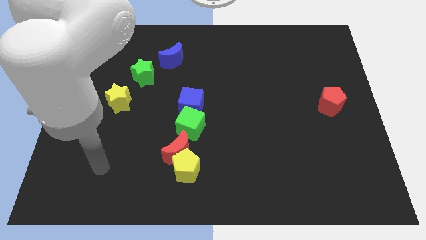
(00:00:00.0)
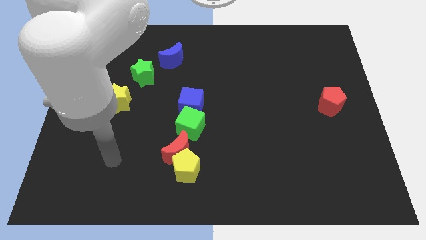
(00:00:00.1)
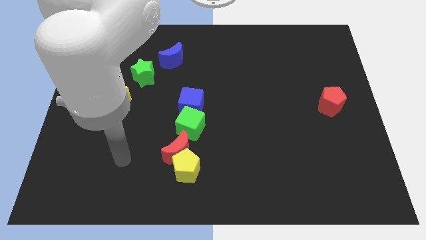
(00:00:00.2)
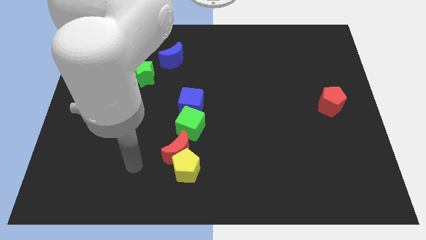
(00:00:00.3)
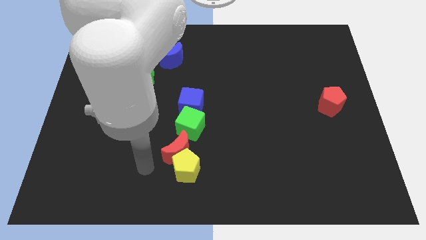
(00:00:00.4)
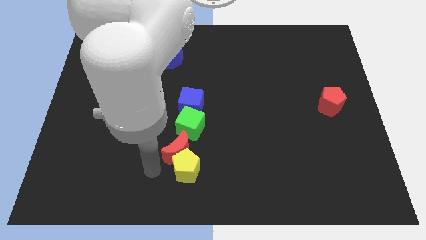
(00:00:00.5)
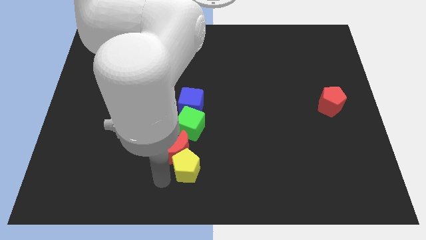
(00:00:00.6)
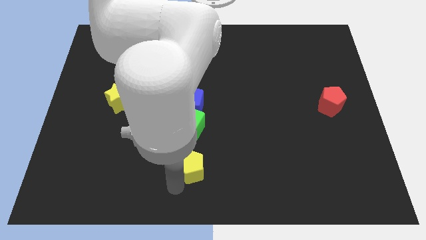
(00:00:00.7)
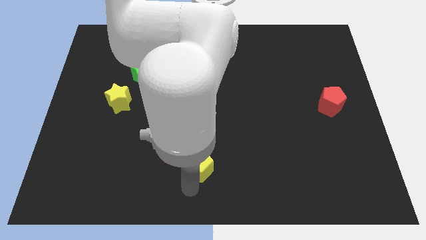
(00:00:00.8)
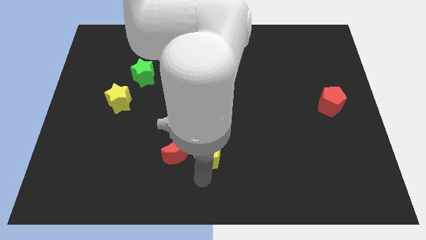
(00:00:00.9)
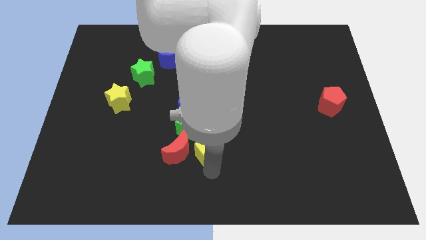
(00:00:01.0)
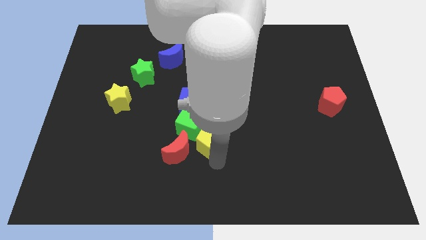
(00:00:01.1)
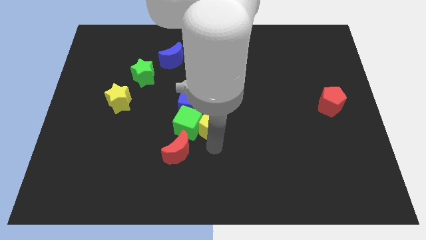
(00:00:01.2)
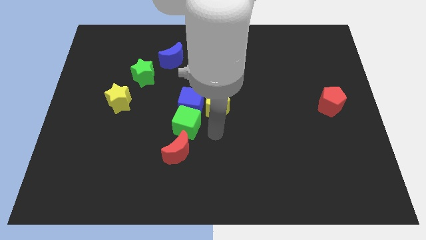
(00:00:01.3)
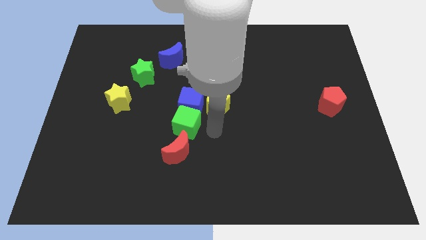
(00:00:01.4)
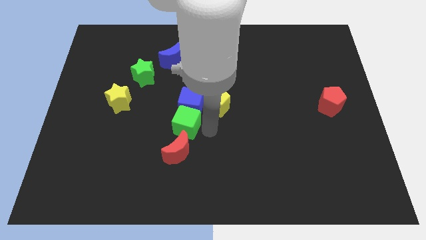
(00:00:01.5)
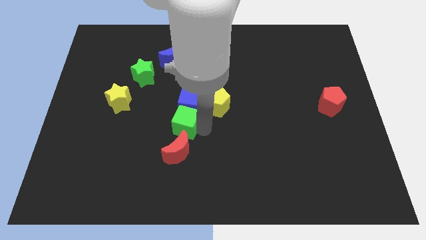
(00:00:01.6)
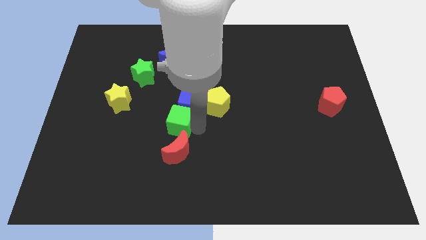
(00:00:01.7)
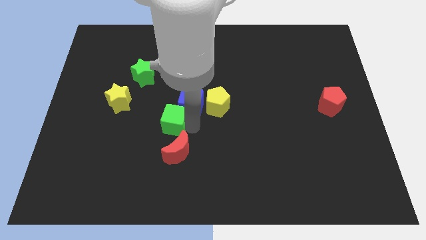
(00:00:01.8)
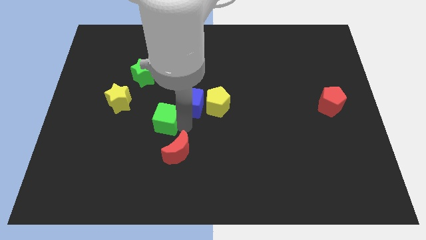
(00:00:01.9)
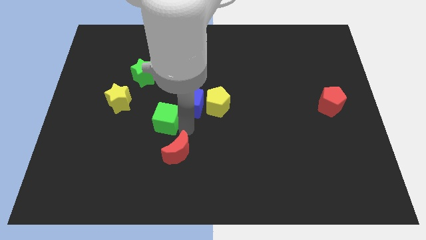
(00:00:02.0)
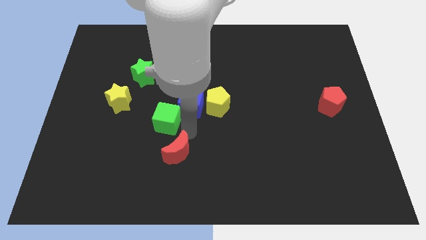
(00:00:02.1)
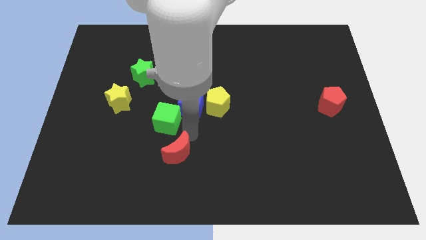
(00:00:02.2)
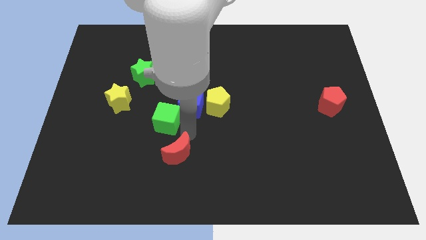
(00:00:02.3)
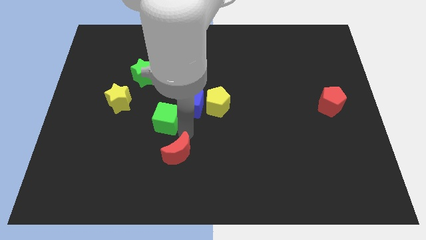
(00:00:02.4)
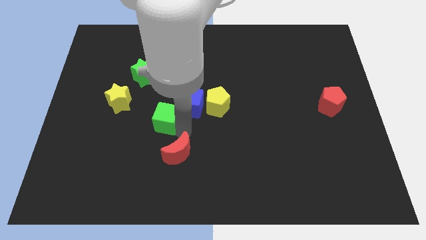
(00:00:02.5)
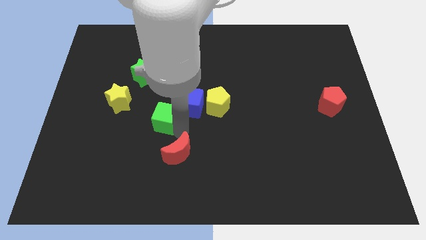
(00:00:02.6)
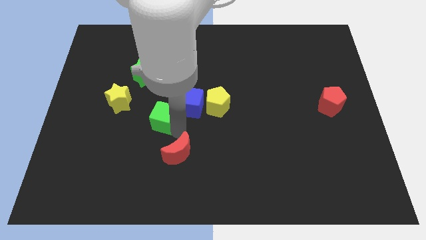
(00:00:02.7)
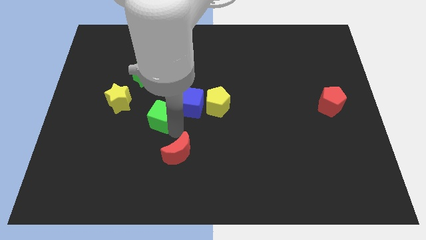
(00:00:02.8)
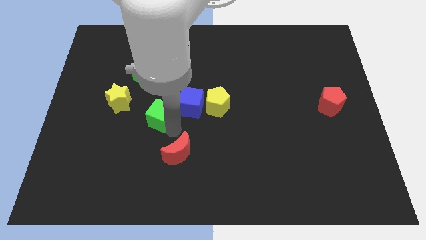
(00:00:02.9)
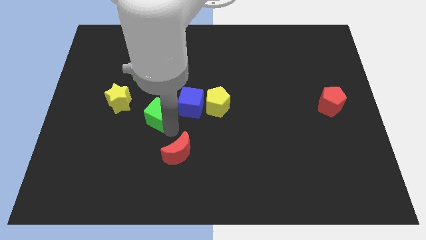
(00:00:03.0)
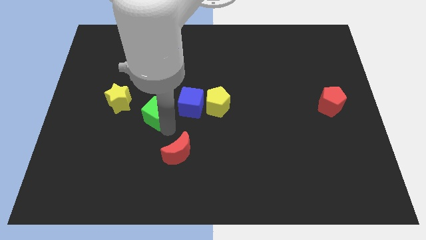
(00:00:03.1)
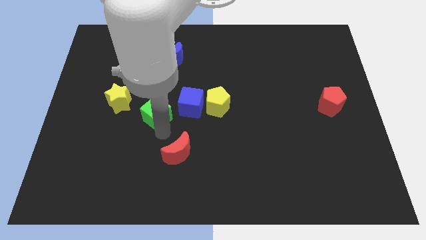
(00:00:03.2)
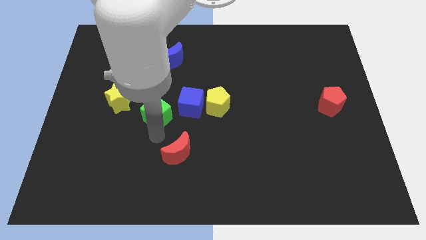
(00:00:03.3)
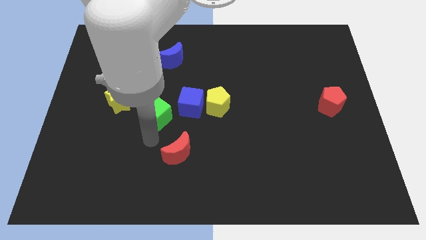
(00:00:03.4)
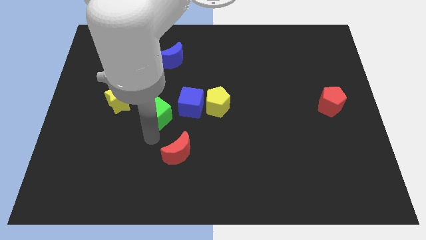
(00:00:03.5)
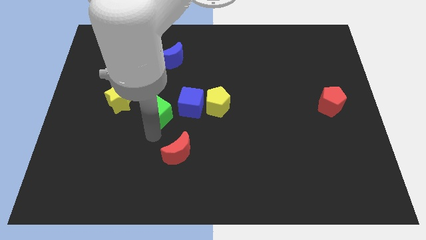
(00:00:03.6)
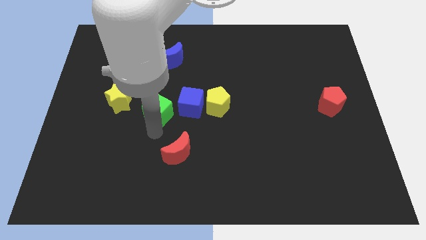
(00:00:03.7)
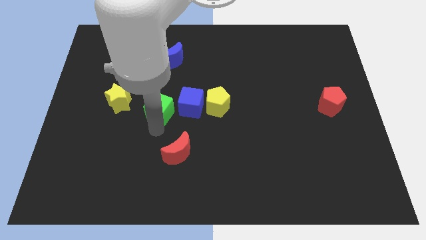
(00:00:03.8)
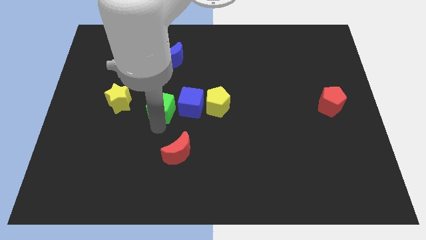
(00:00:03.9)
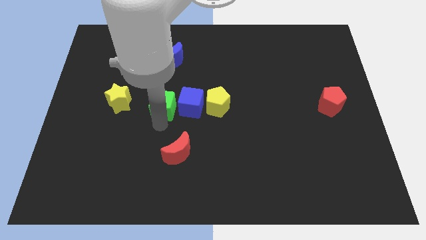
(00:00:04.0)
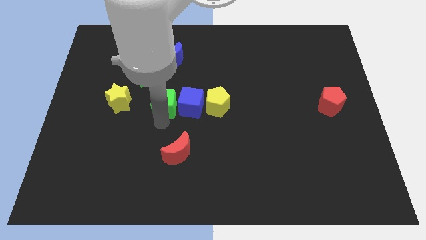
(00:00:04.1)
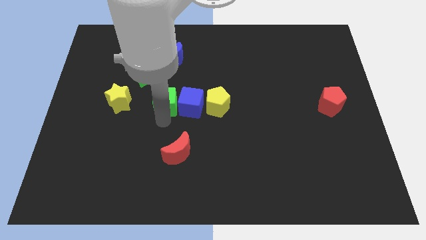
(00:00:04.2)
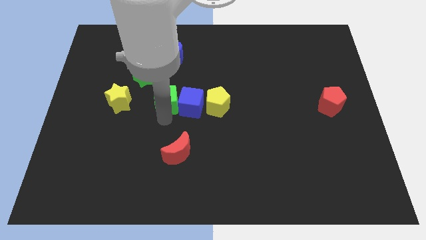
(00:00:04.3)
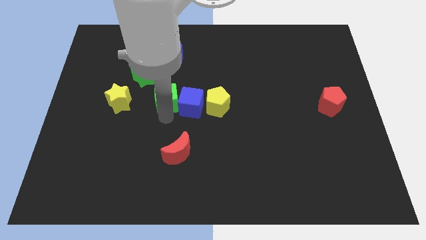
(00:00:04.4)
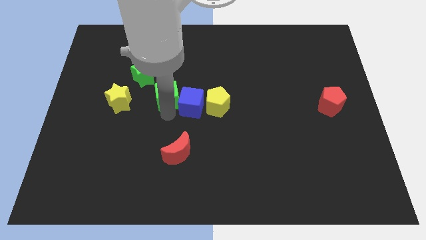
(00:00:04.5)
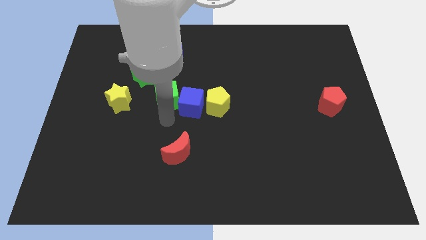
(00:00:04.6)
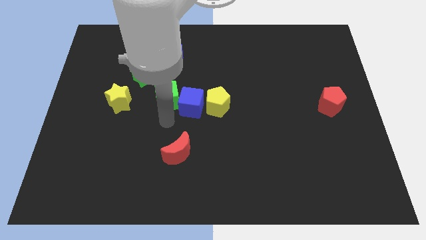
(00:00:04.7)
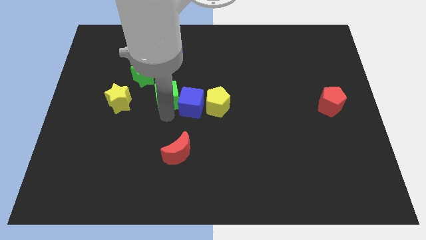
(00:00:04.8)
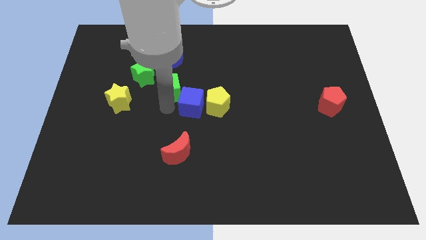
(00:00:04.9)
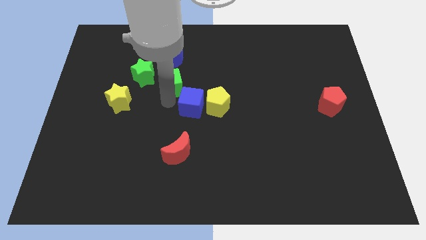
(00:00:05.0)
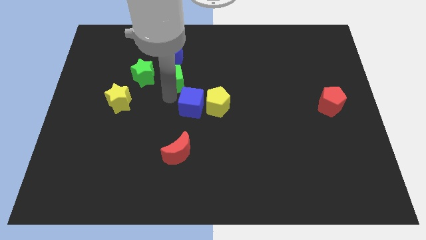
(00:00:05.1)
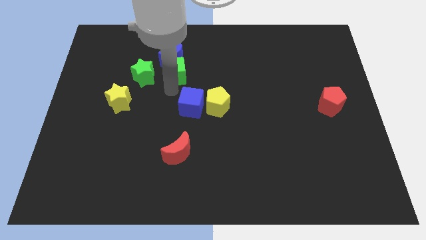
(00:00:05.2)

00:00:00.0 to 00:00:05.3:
put the green cube towards the blue moon

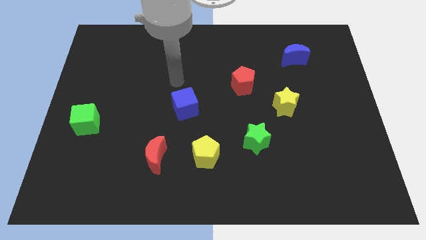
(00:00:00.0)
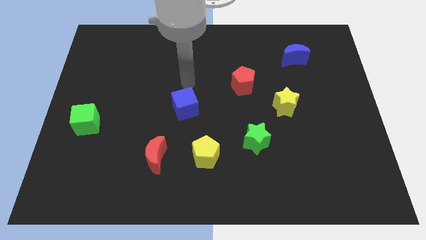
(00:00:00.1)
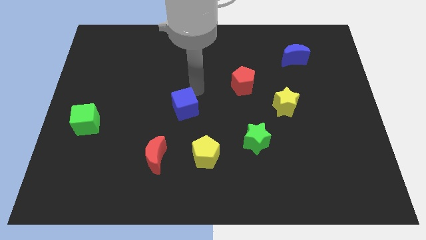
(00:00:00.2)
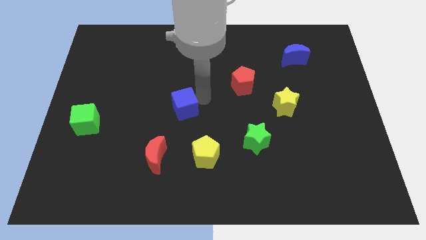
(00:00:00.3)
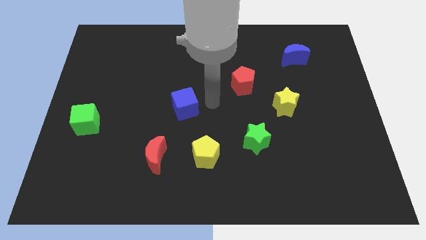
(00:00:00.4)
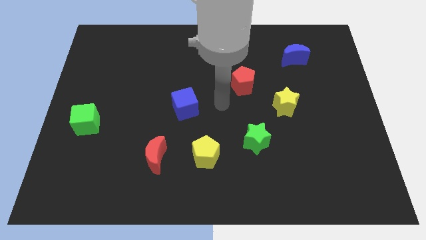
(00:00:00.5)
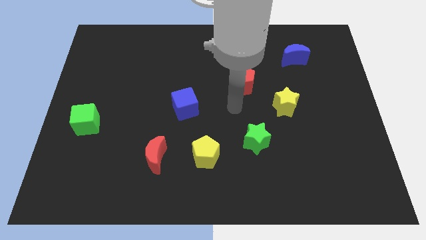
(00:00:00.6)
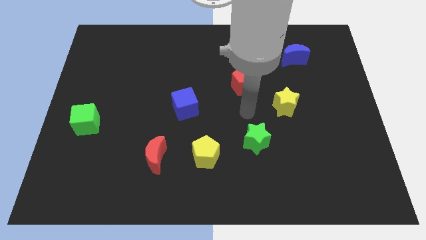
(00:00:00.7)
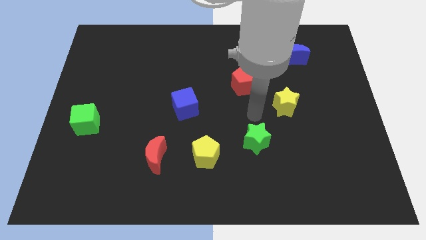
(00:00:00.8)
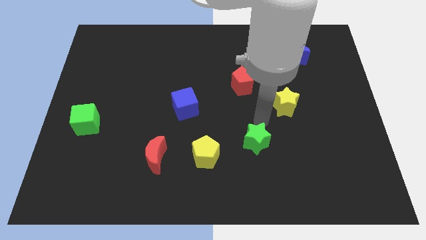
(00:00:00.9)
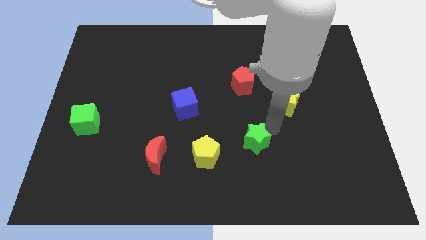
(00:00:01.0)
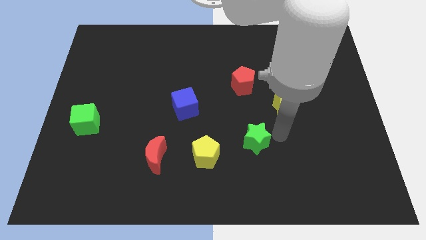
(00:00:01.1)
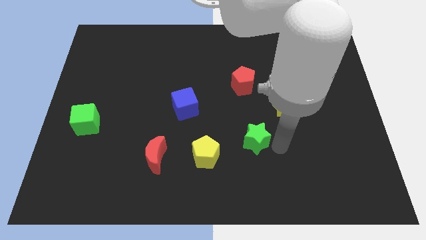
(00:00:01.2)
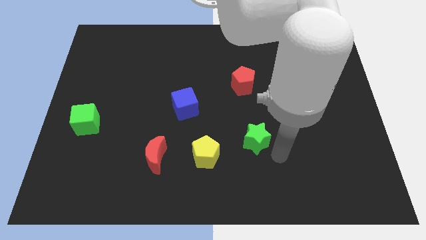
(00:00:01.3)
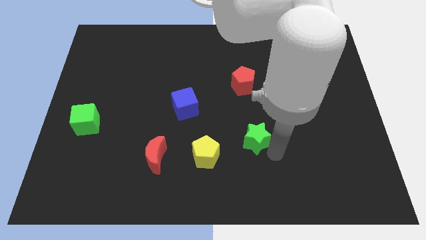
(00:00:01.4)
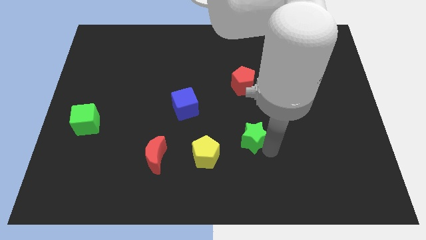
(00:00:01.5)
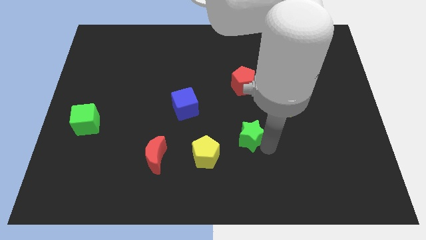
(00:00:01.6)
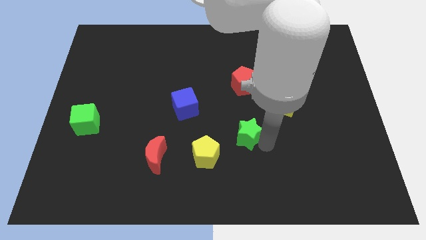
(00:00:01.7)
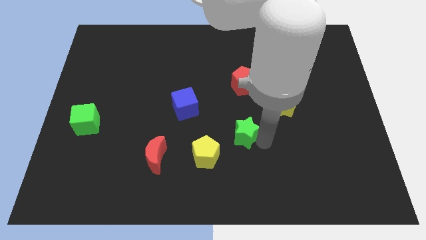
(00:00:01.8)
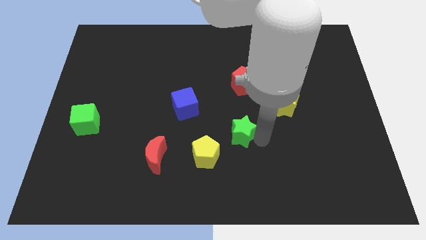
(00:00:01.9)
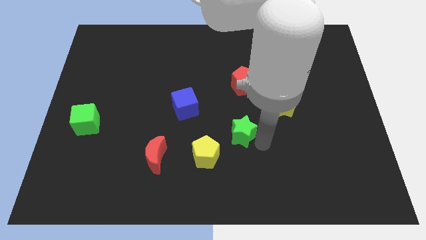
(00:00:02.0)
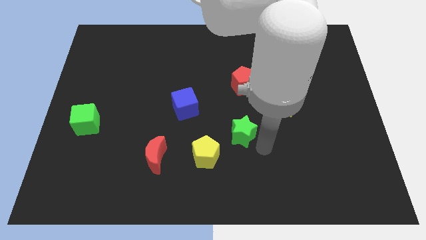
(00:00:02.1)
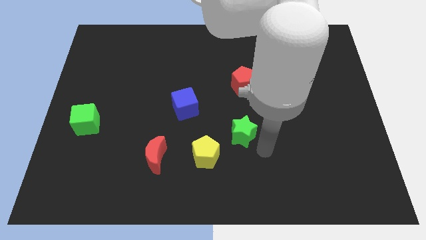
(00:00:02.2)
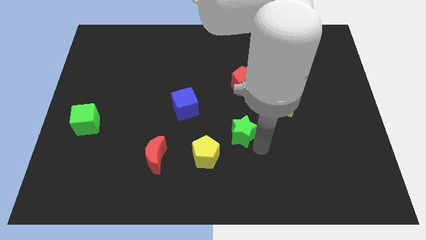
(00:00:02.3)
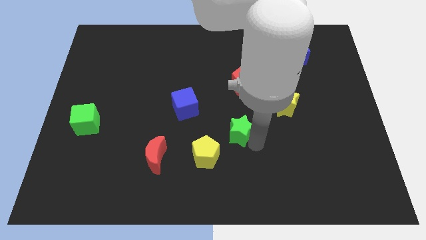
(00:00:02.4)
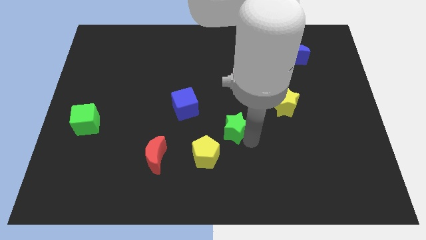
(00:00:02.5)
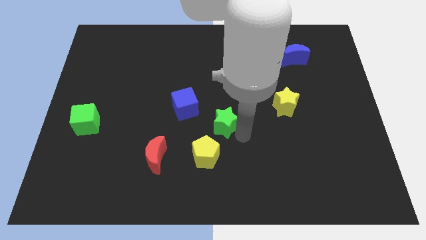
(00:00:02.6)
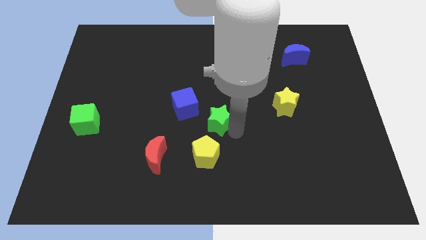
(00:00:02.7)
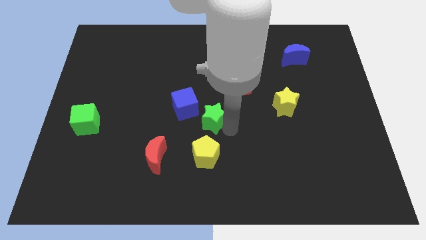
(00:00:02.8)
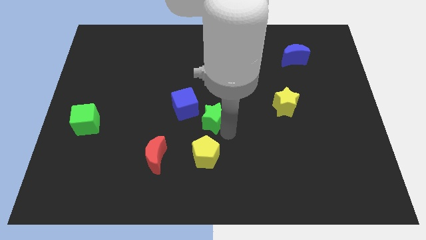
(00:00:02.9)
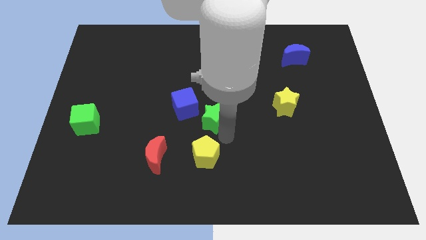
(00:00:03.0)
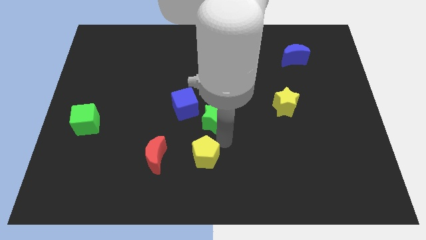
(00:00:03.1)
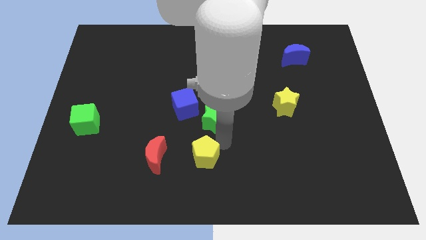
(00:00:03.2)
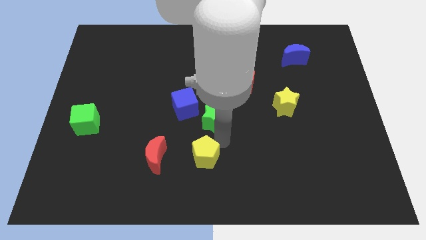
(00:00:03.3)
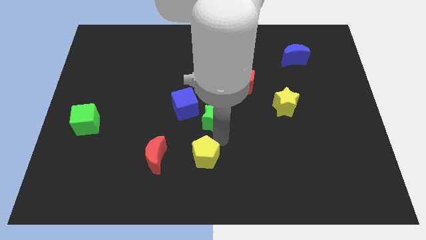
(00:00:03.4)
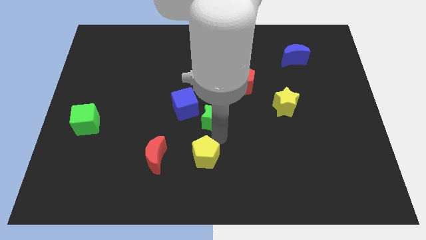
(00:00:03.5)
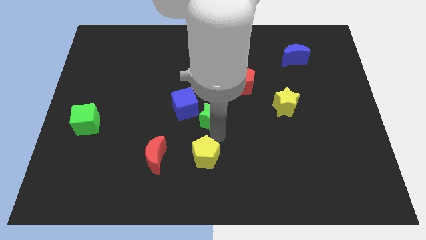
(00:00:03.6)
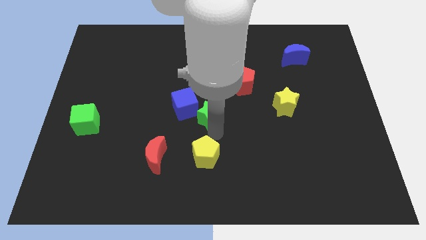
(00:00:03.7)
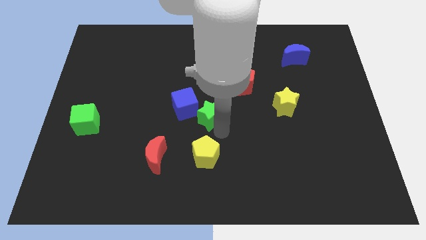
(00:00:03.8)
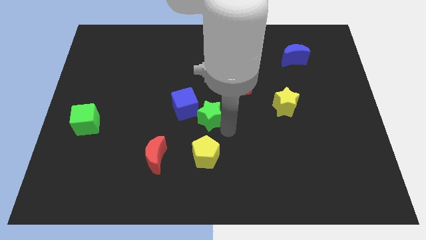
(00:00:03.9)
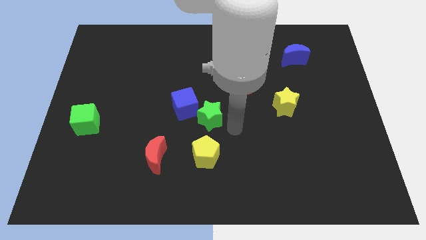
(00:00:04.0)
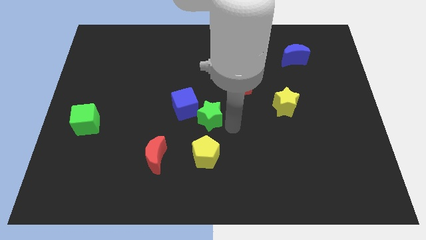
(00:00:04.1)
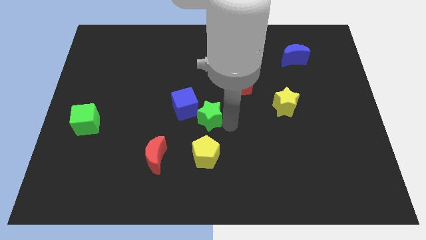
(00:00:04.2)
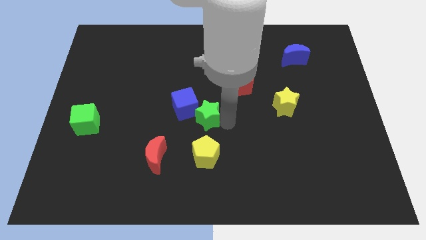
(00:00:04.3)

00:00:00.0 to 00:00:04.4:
push the green star close to the blue cube
